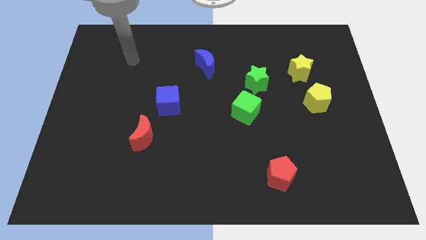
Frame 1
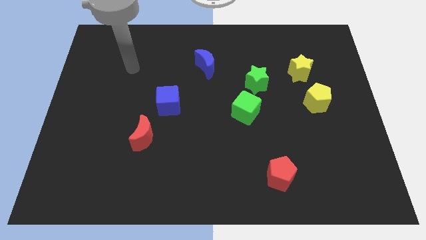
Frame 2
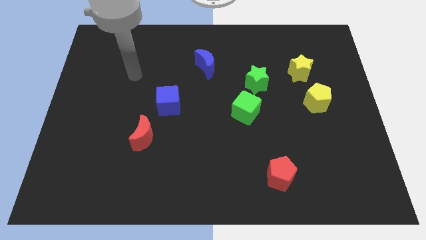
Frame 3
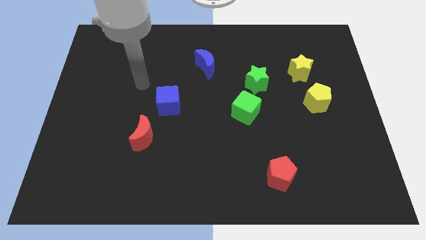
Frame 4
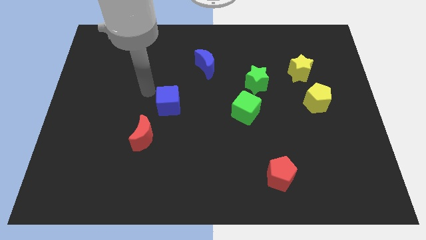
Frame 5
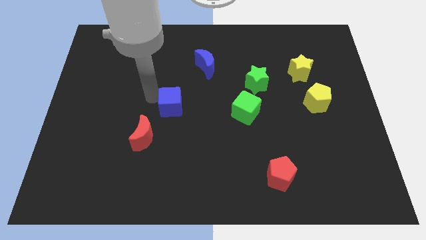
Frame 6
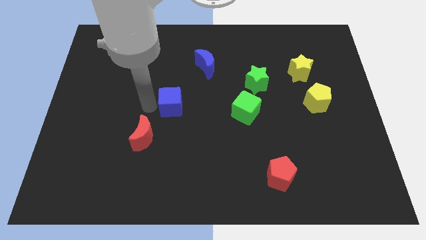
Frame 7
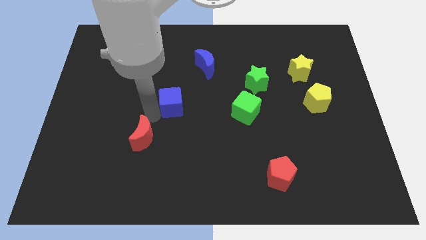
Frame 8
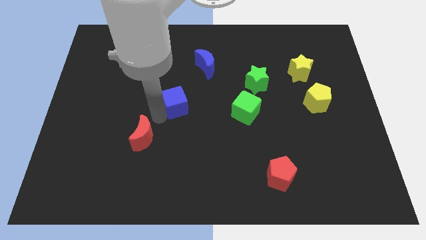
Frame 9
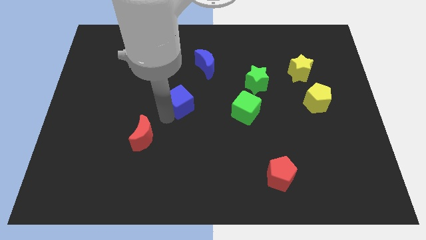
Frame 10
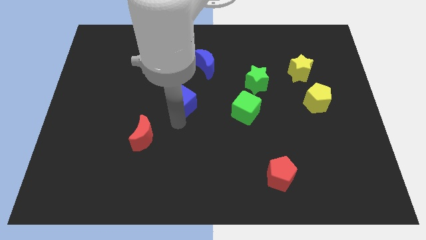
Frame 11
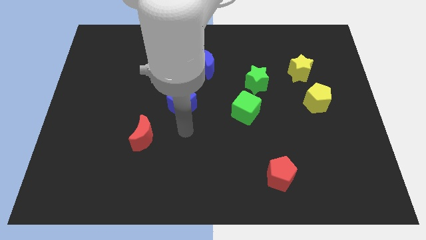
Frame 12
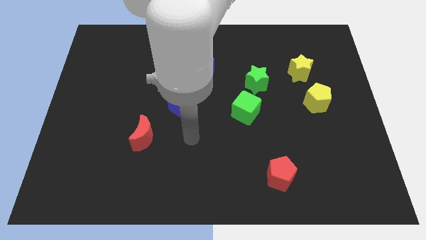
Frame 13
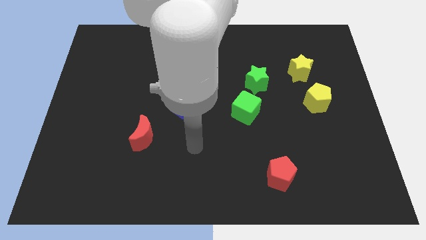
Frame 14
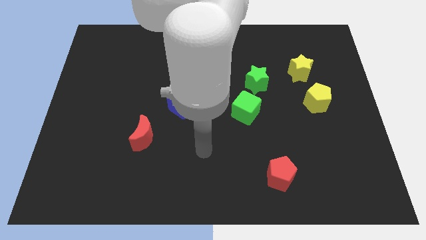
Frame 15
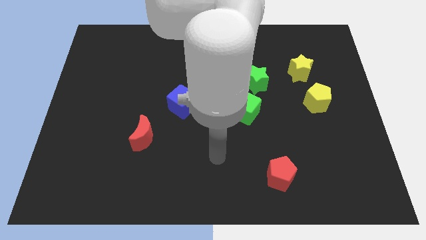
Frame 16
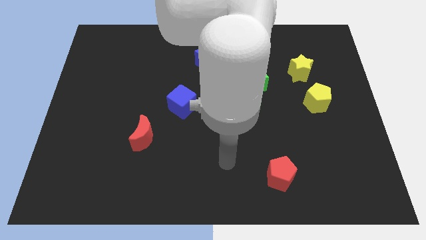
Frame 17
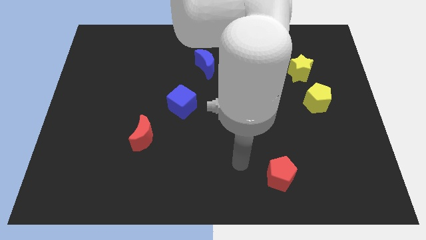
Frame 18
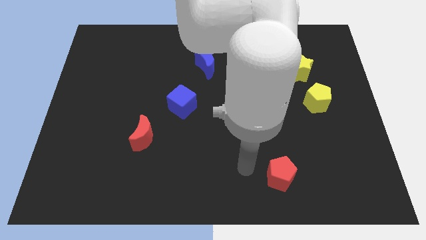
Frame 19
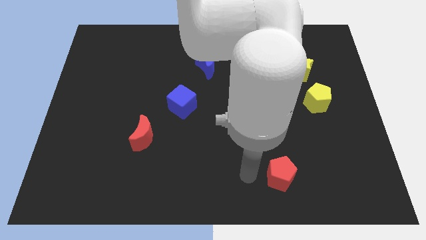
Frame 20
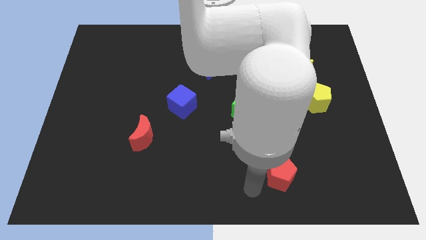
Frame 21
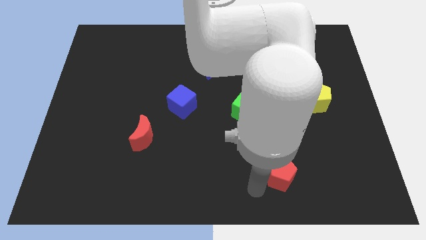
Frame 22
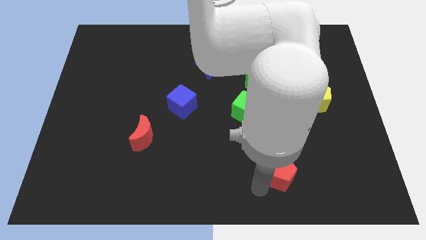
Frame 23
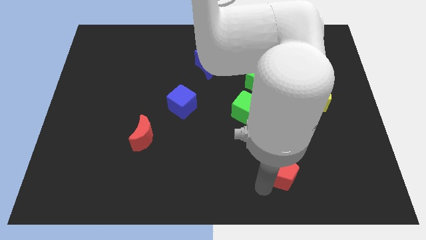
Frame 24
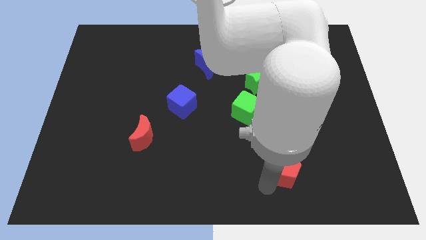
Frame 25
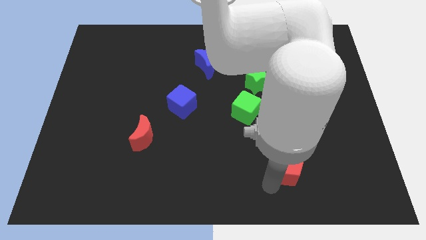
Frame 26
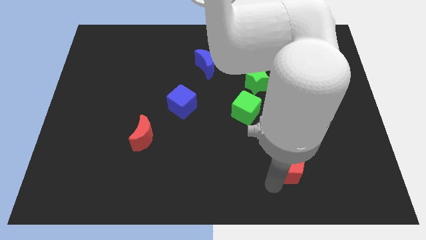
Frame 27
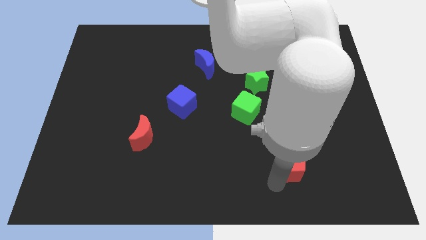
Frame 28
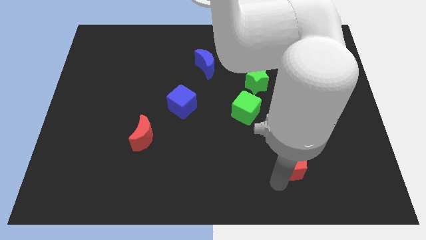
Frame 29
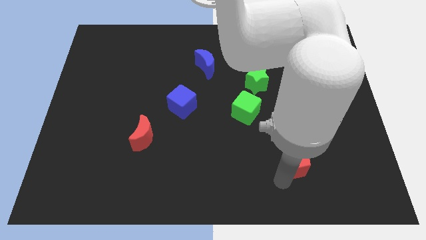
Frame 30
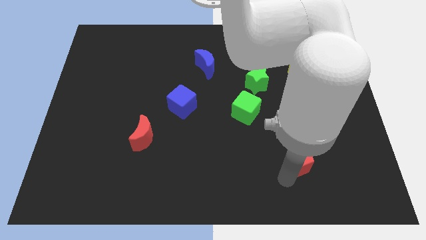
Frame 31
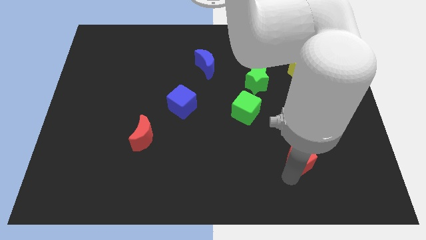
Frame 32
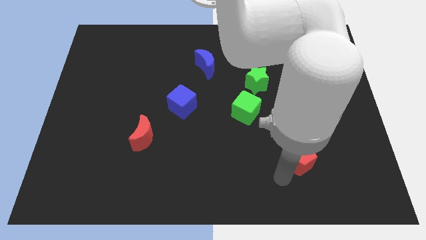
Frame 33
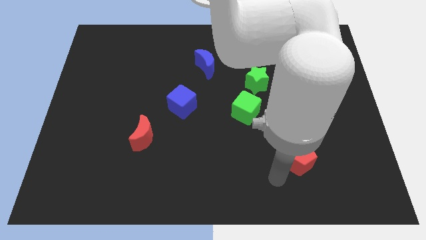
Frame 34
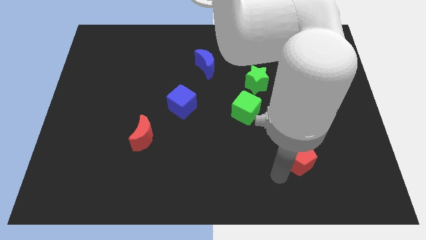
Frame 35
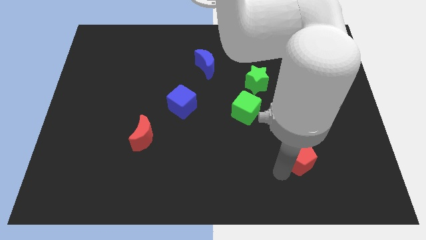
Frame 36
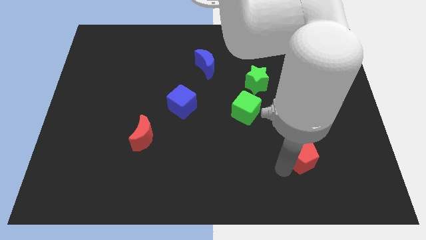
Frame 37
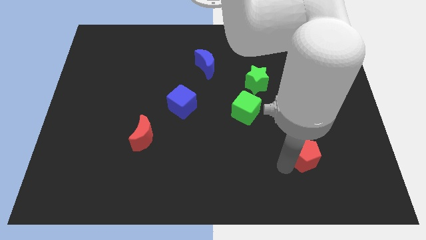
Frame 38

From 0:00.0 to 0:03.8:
slightly push the red pentagon upwards and to the right diagonally

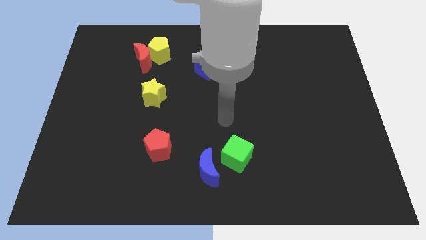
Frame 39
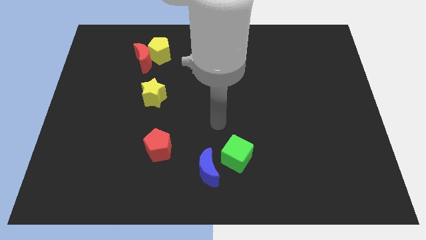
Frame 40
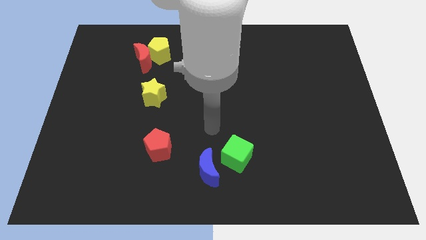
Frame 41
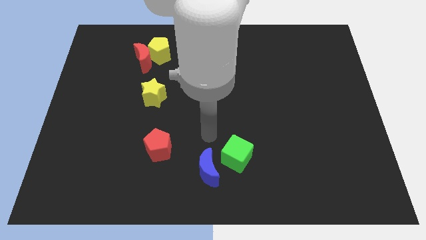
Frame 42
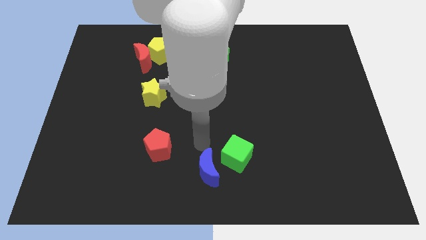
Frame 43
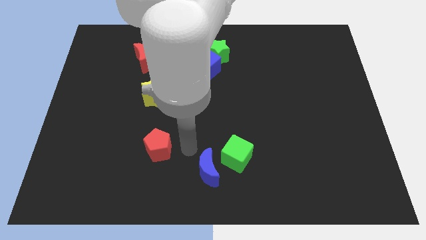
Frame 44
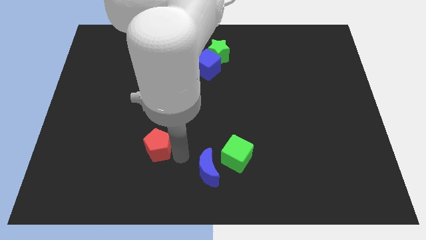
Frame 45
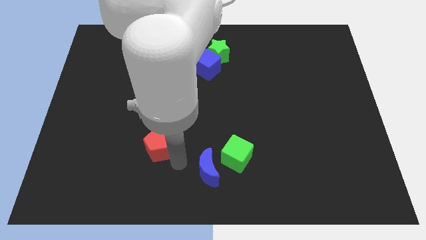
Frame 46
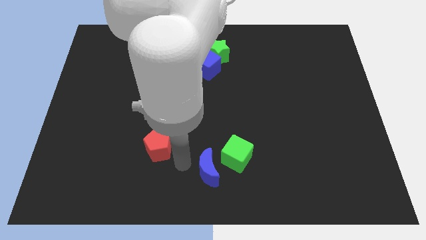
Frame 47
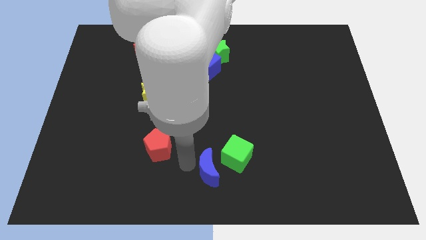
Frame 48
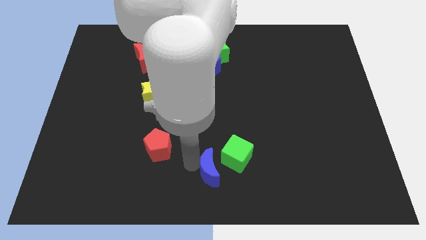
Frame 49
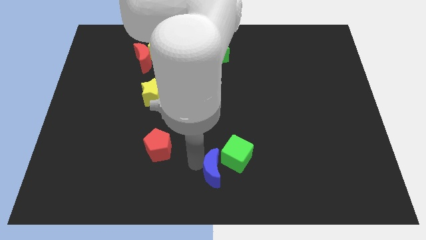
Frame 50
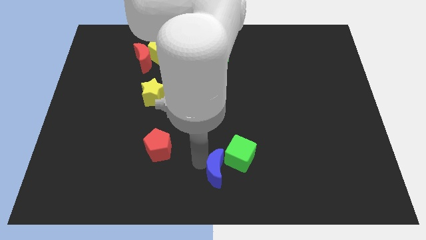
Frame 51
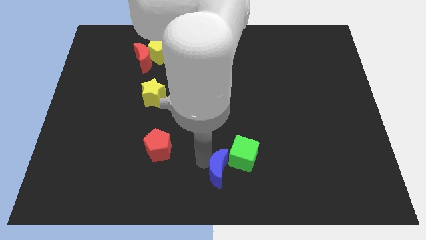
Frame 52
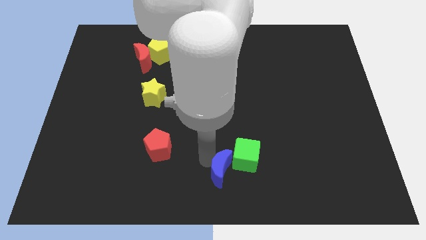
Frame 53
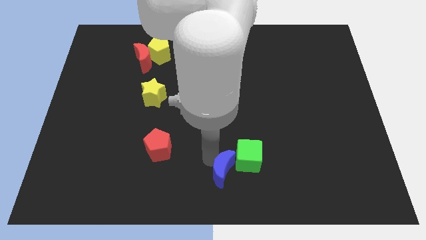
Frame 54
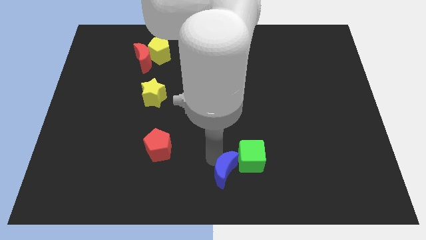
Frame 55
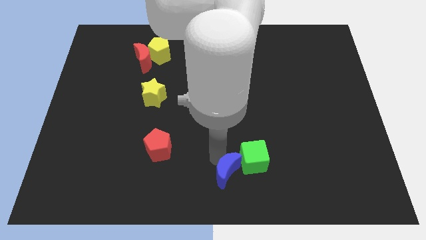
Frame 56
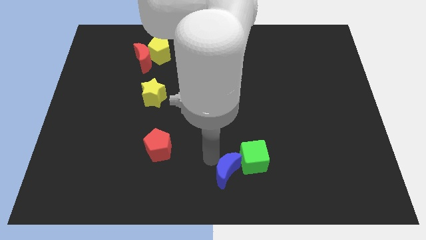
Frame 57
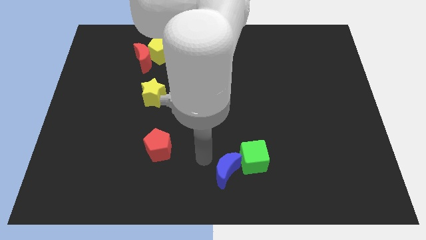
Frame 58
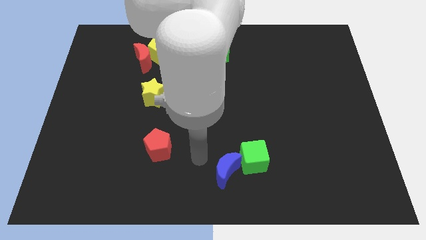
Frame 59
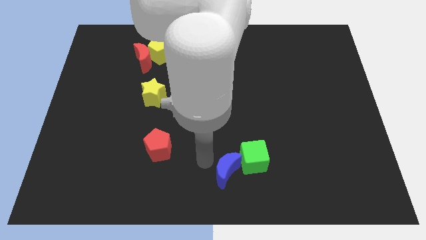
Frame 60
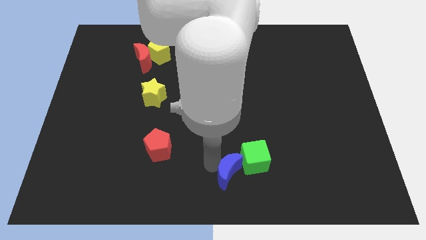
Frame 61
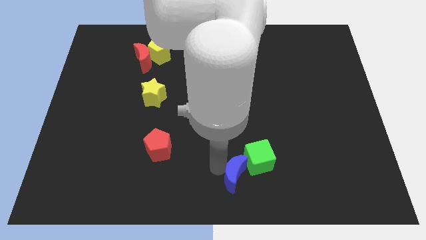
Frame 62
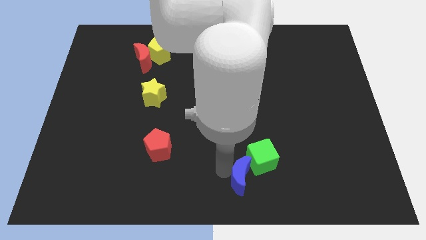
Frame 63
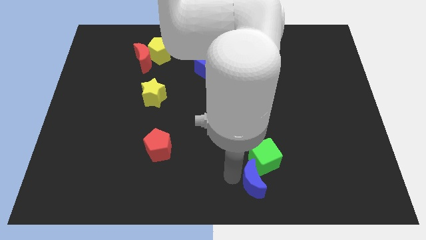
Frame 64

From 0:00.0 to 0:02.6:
slide the blue moon to the right slightly

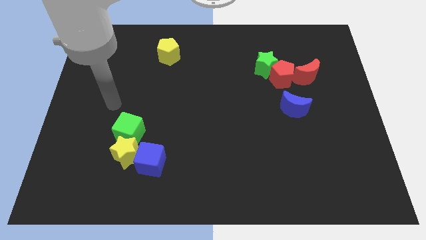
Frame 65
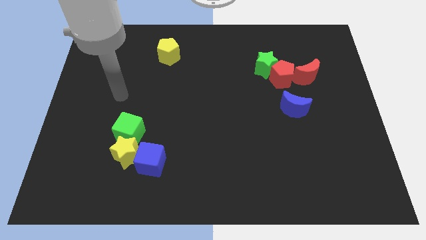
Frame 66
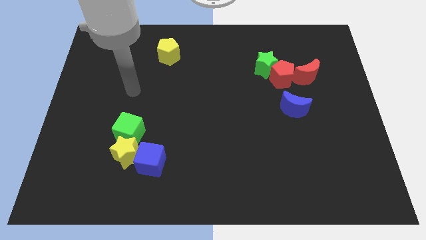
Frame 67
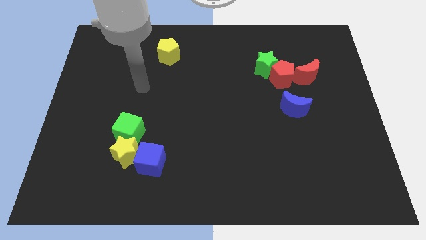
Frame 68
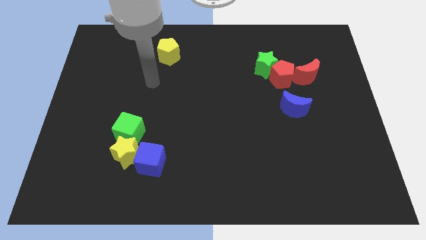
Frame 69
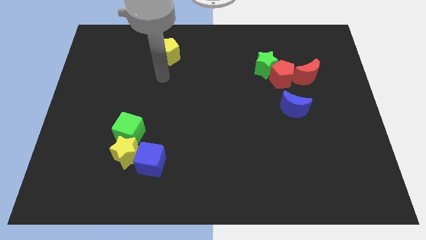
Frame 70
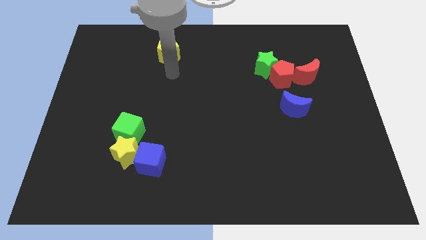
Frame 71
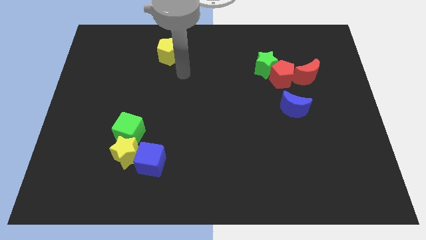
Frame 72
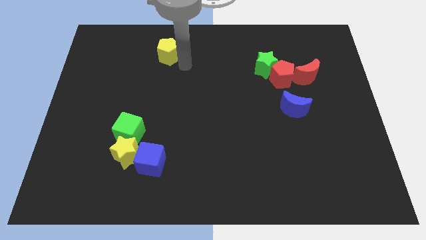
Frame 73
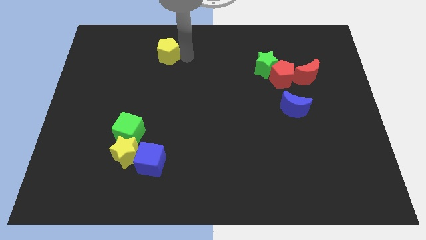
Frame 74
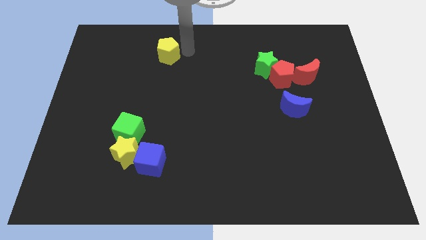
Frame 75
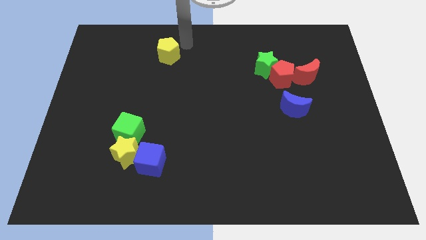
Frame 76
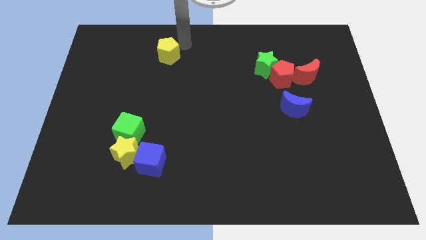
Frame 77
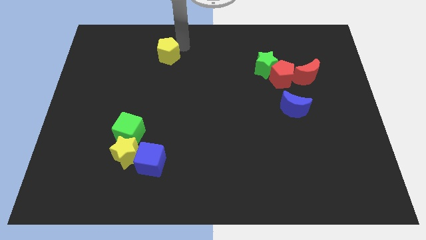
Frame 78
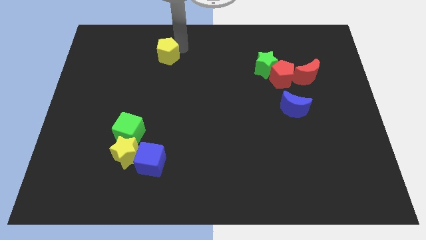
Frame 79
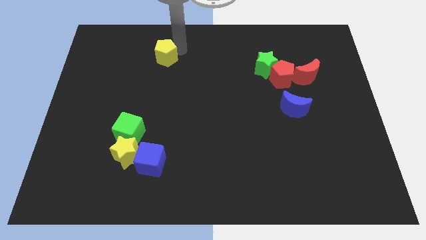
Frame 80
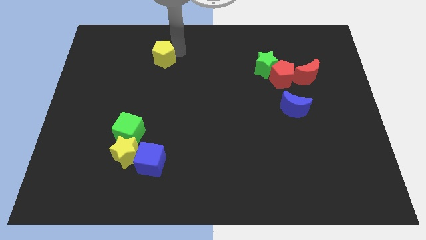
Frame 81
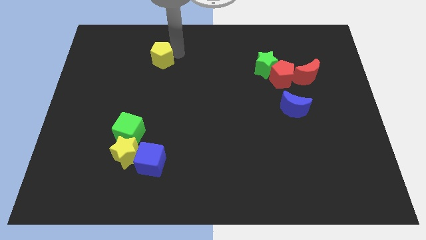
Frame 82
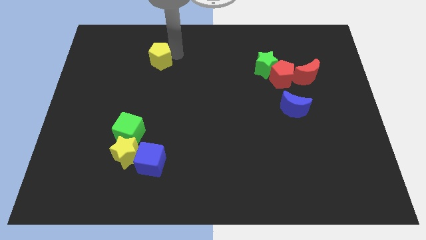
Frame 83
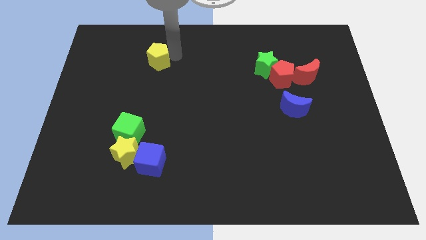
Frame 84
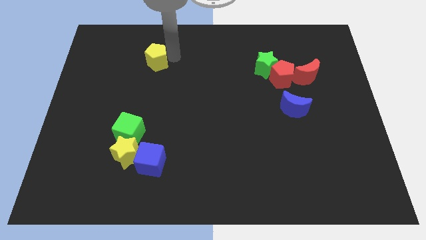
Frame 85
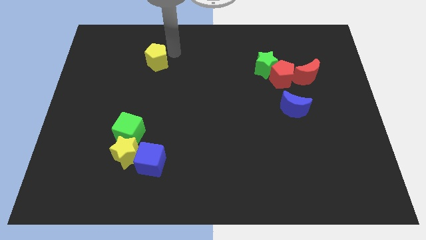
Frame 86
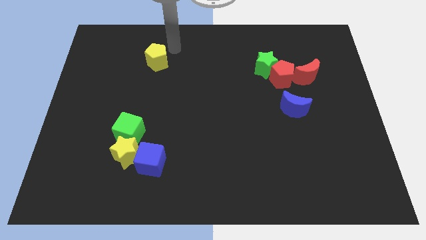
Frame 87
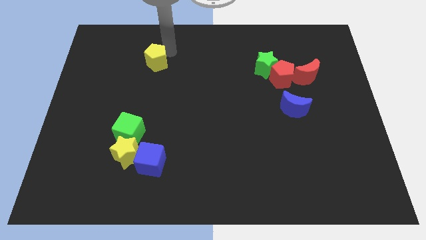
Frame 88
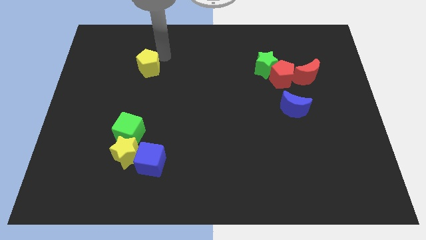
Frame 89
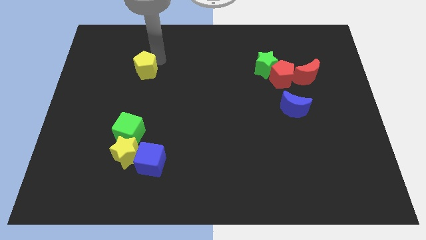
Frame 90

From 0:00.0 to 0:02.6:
slightly move the yellow pentagon downwards and to the left
